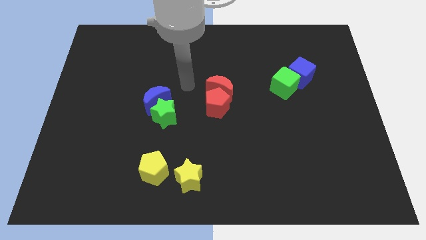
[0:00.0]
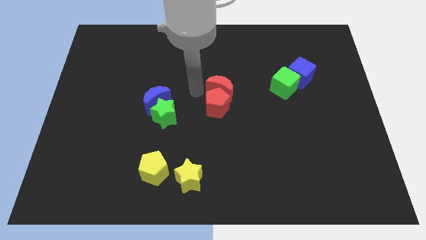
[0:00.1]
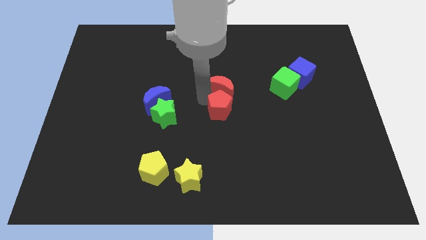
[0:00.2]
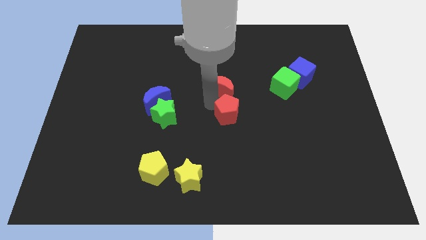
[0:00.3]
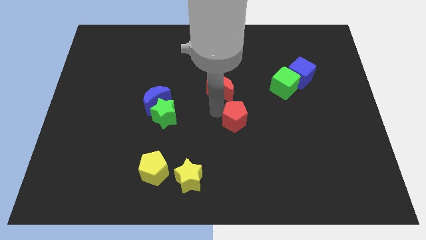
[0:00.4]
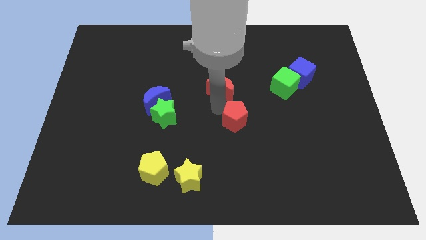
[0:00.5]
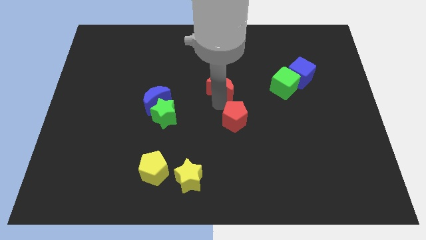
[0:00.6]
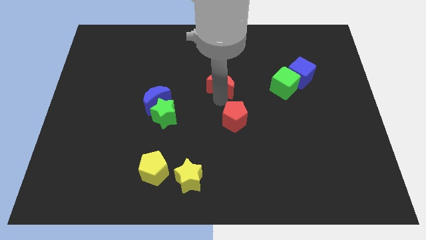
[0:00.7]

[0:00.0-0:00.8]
pull the red moon apart from the red pentagon

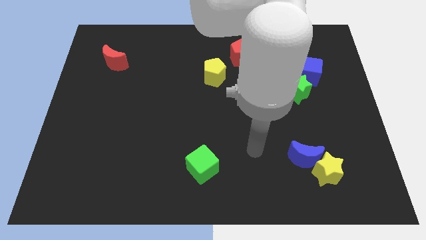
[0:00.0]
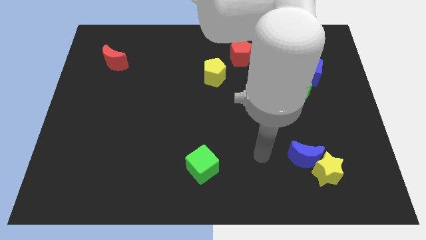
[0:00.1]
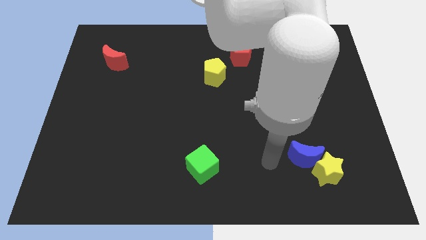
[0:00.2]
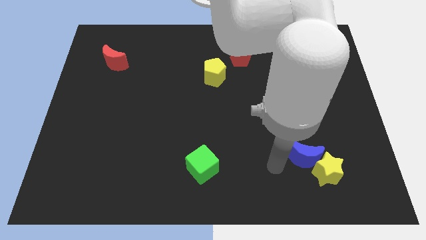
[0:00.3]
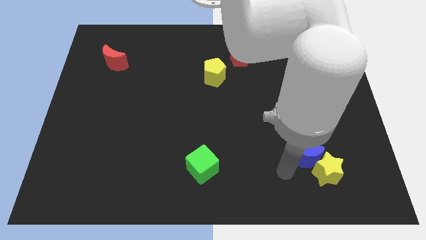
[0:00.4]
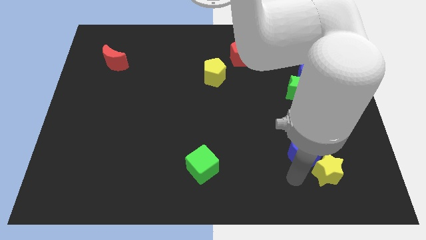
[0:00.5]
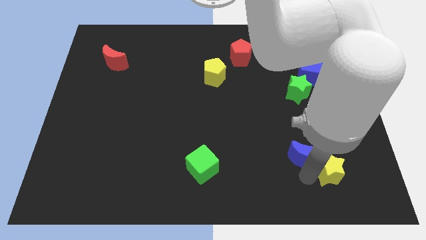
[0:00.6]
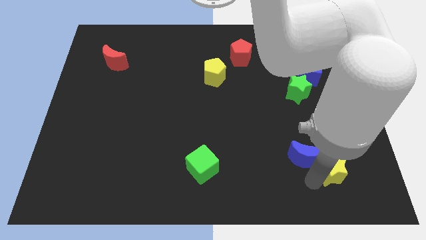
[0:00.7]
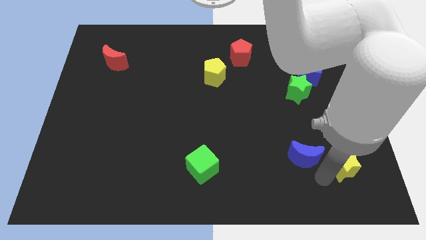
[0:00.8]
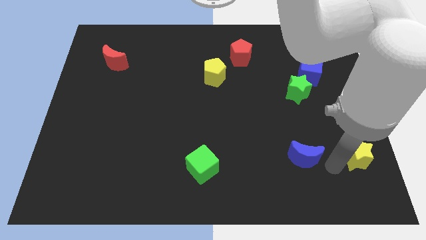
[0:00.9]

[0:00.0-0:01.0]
move the blue moon away from the yellow star

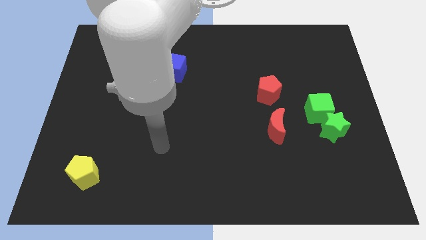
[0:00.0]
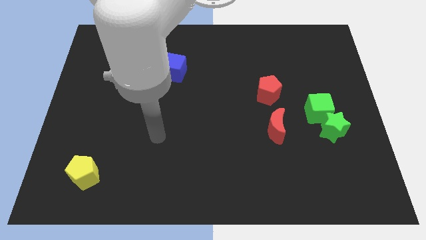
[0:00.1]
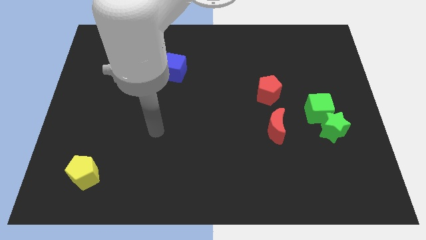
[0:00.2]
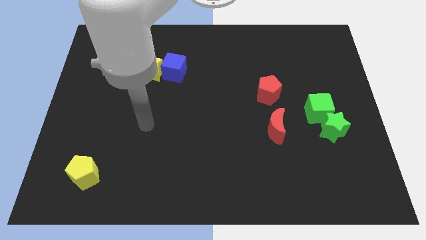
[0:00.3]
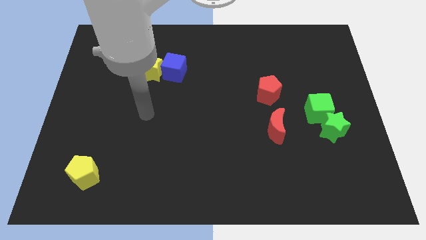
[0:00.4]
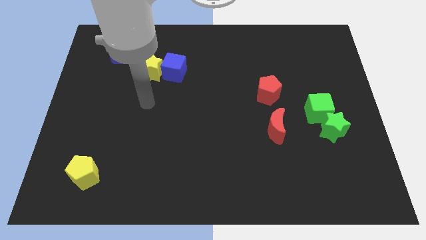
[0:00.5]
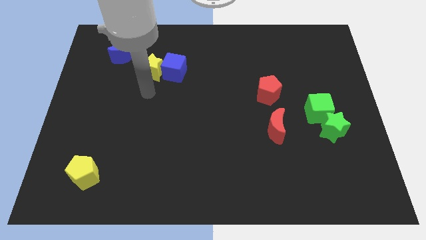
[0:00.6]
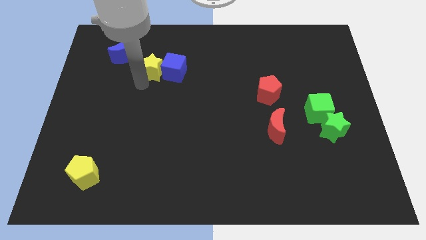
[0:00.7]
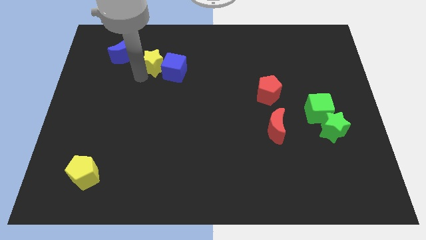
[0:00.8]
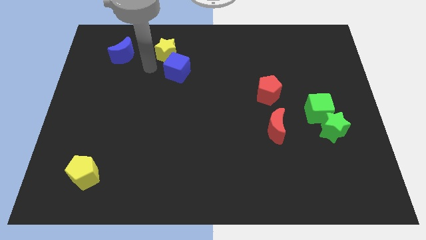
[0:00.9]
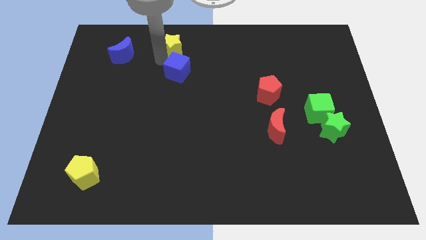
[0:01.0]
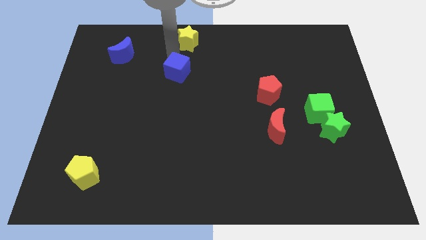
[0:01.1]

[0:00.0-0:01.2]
separate the blue cube from the yellow star

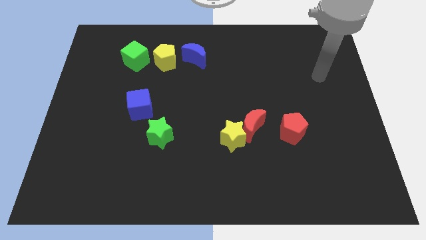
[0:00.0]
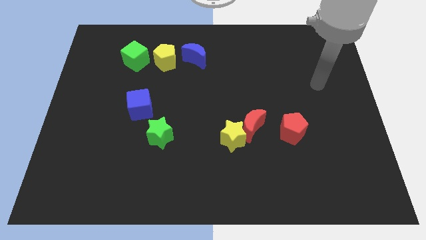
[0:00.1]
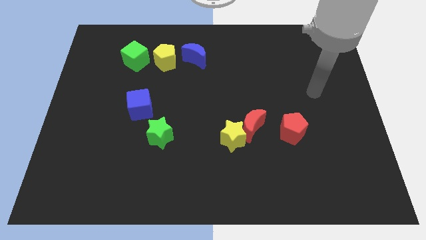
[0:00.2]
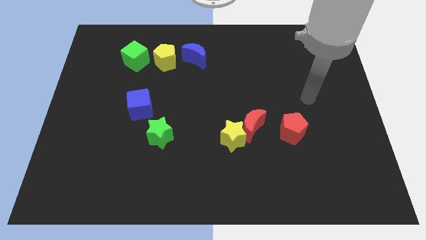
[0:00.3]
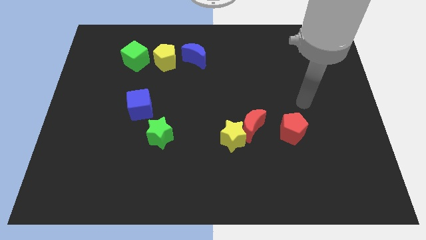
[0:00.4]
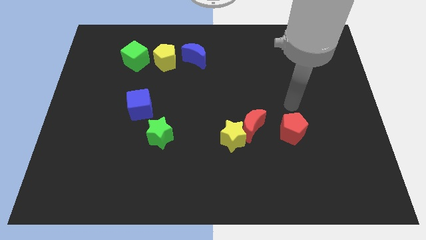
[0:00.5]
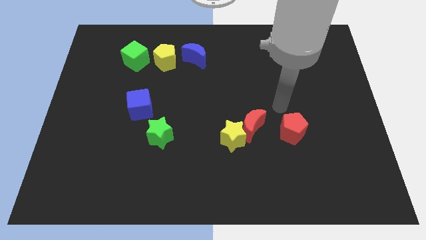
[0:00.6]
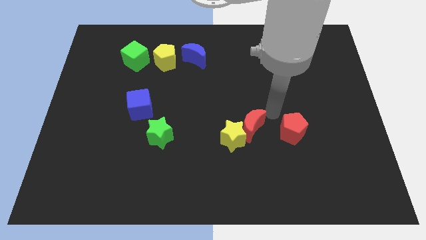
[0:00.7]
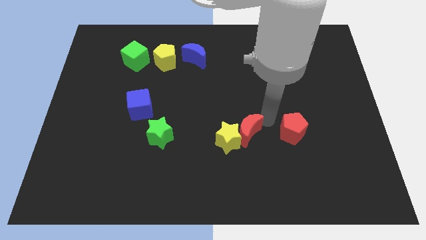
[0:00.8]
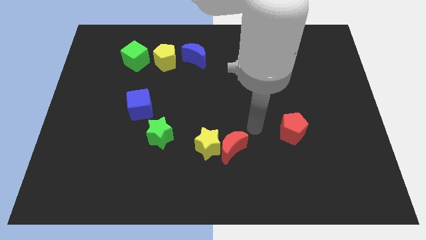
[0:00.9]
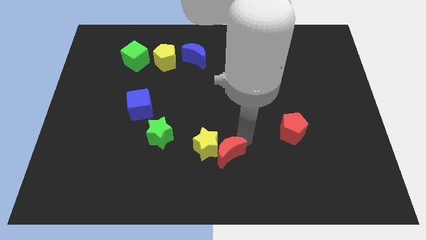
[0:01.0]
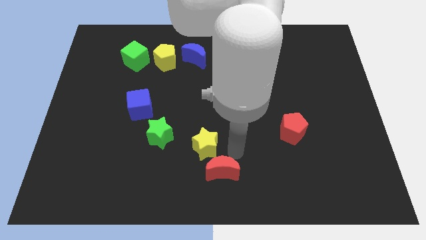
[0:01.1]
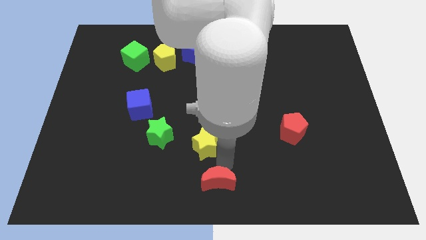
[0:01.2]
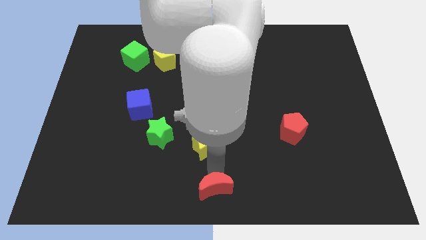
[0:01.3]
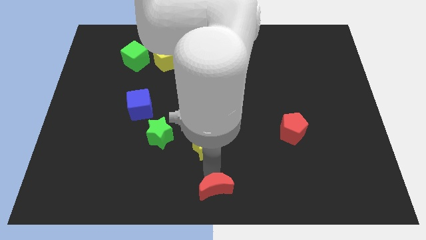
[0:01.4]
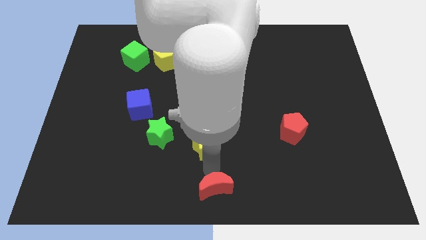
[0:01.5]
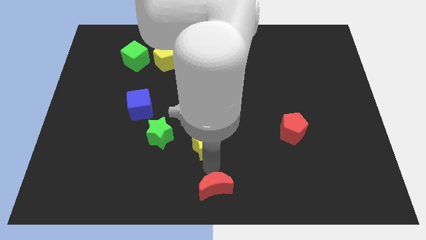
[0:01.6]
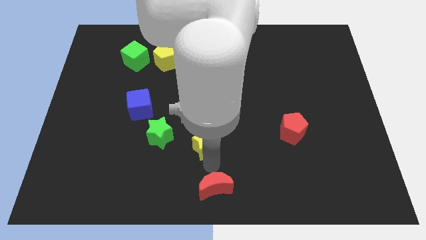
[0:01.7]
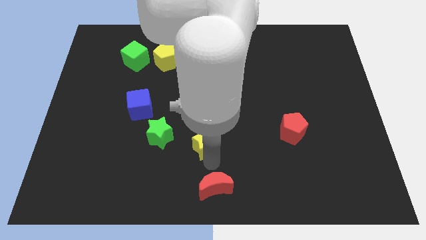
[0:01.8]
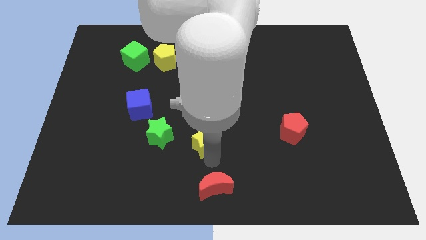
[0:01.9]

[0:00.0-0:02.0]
pull the yellow star apart from the red moon

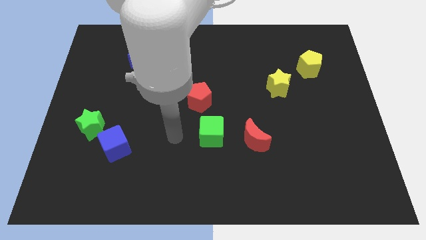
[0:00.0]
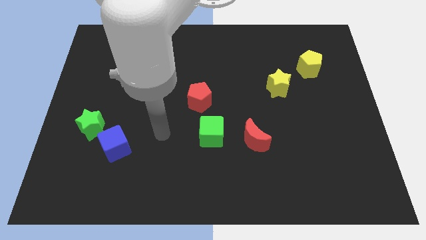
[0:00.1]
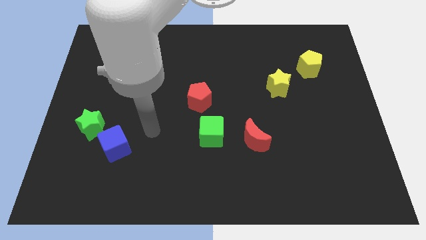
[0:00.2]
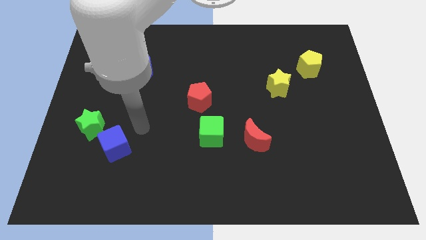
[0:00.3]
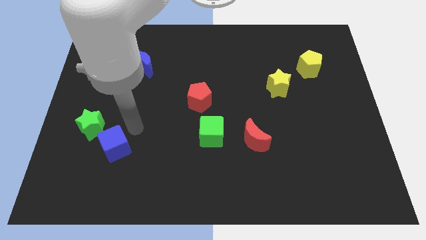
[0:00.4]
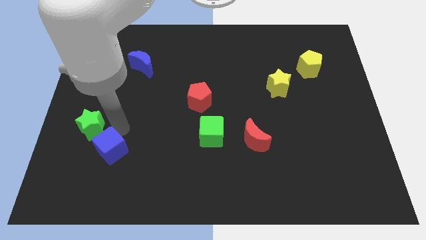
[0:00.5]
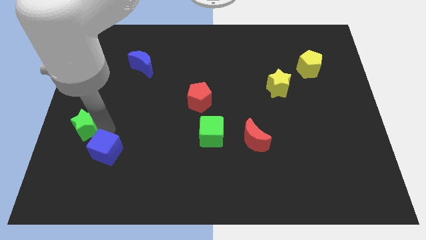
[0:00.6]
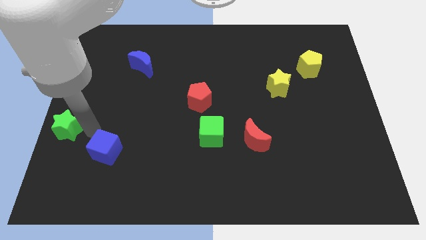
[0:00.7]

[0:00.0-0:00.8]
move the blue cube away from the green star

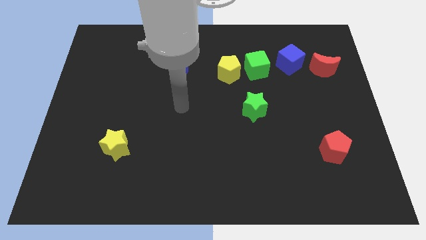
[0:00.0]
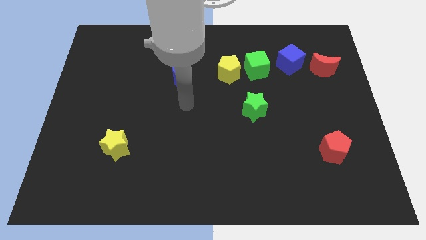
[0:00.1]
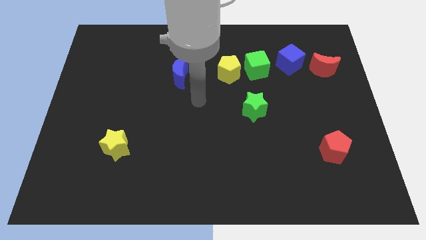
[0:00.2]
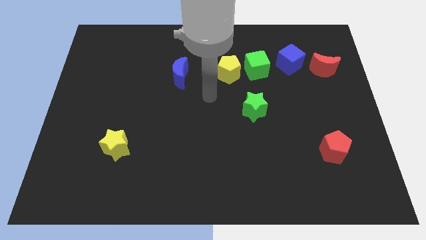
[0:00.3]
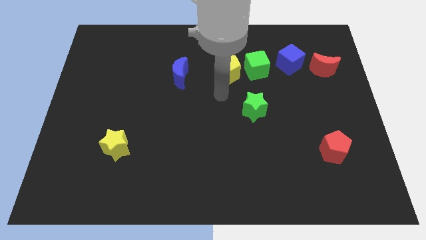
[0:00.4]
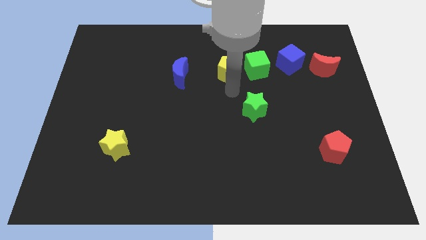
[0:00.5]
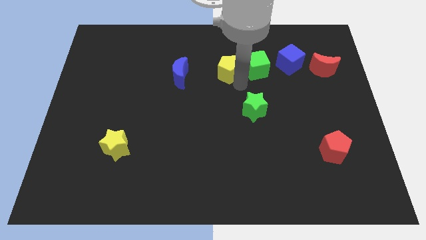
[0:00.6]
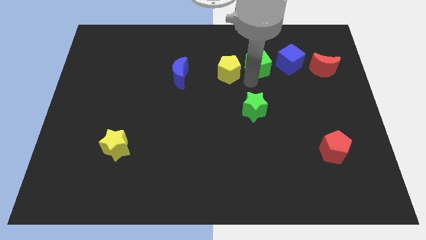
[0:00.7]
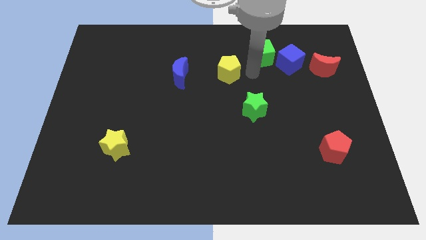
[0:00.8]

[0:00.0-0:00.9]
separate the yellow pentagon from the green cube

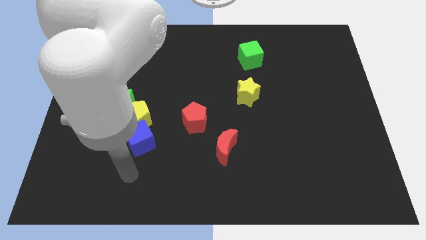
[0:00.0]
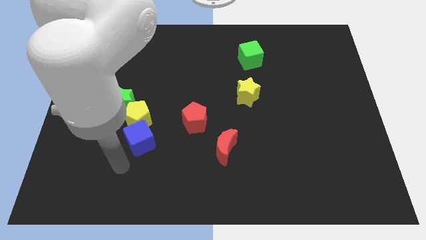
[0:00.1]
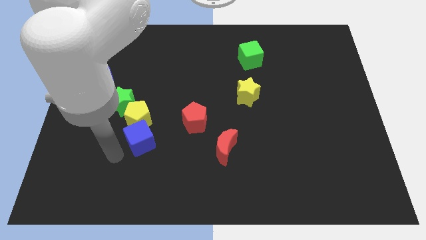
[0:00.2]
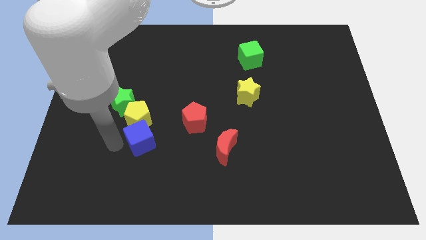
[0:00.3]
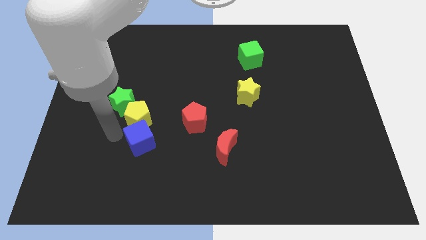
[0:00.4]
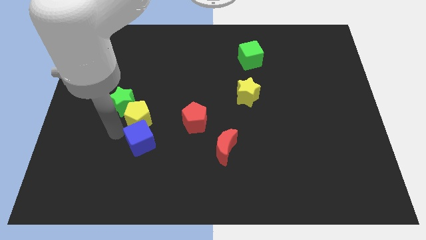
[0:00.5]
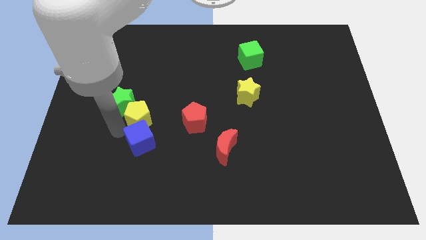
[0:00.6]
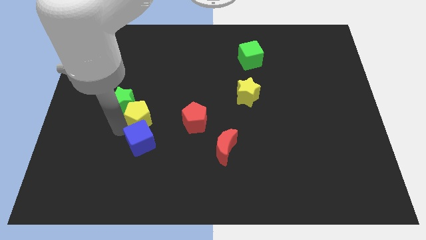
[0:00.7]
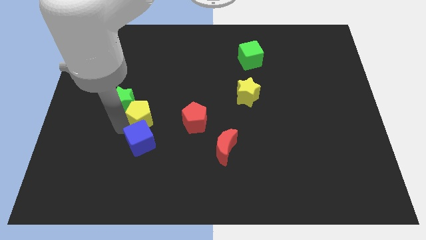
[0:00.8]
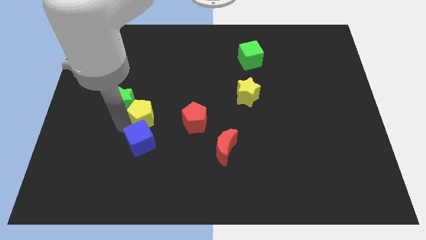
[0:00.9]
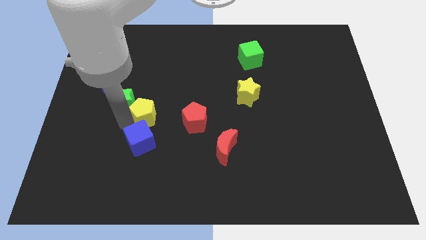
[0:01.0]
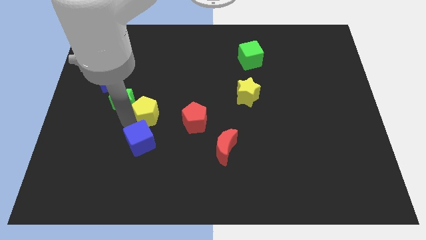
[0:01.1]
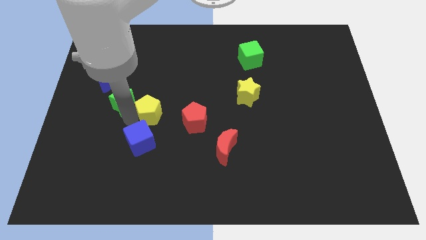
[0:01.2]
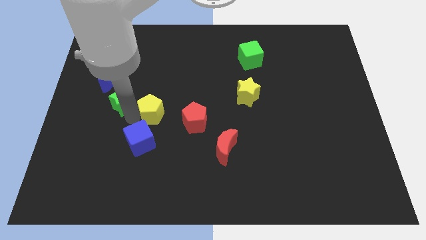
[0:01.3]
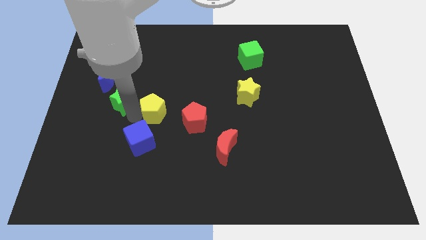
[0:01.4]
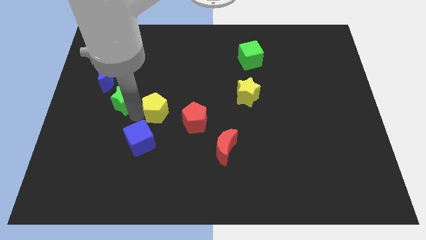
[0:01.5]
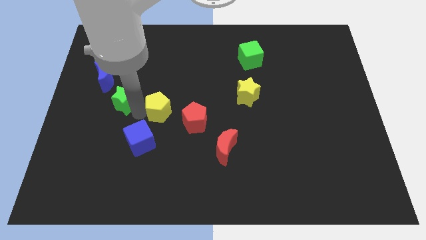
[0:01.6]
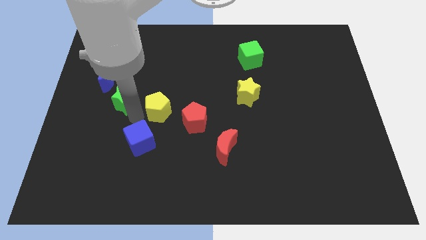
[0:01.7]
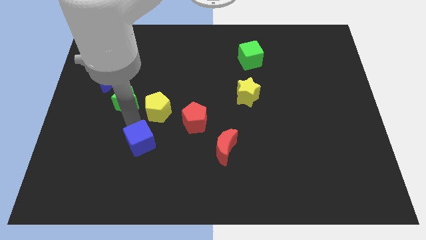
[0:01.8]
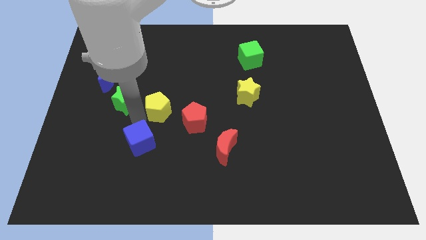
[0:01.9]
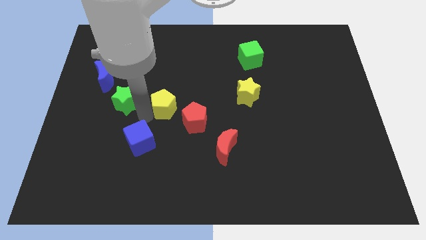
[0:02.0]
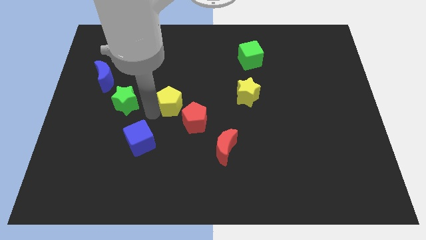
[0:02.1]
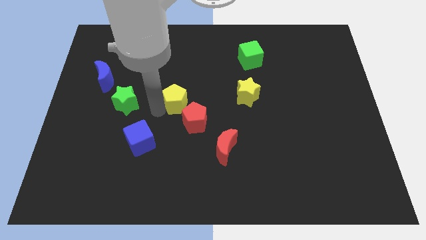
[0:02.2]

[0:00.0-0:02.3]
separate the yellow pentagon from the green star and blue cube

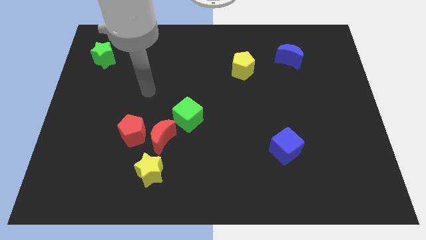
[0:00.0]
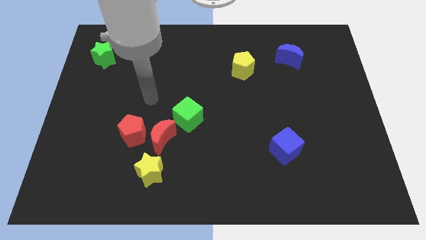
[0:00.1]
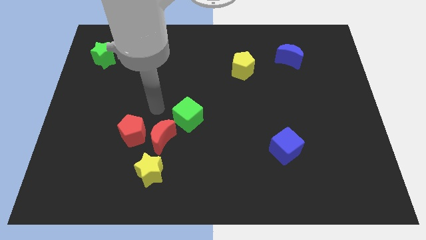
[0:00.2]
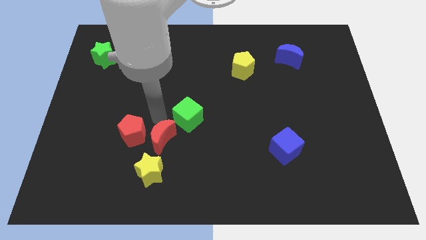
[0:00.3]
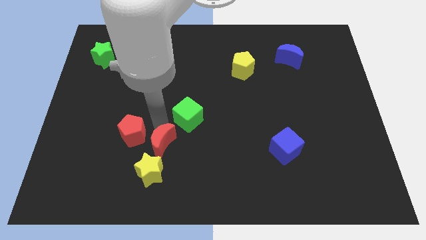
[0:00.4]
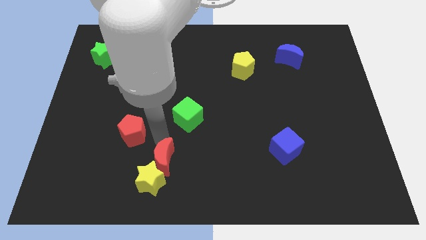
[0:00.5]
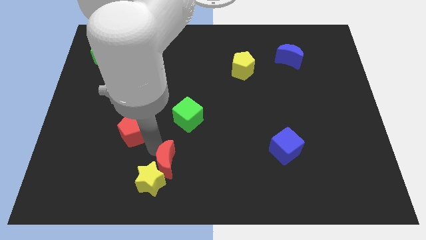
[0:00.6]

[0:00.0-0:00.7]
pull the red pentagon apart from the red moon
